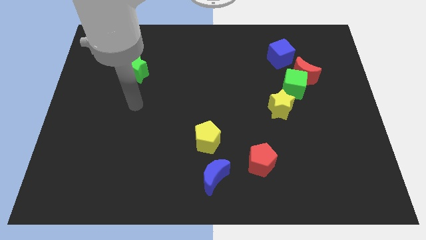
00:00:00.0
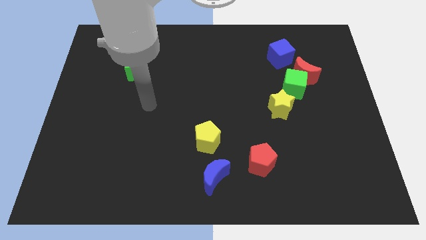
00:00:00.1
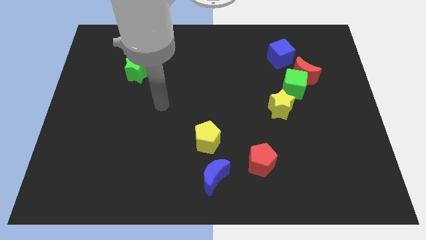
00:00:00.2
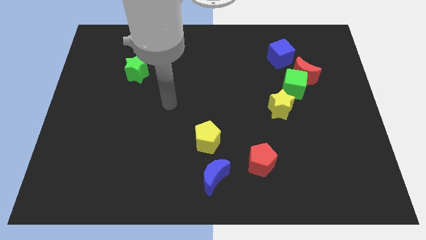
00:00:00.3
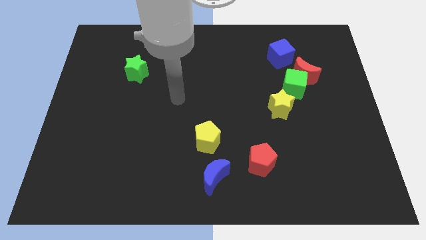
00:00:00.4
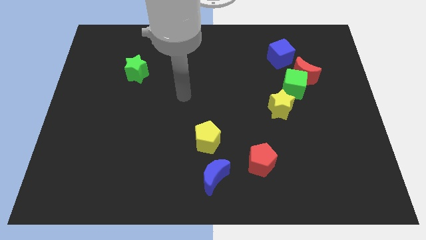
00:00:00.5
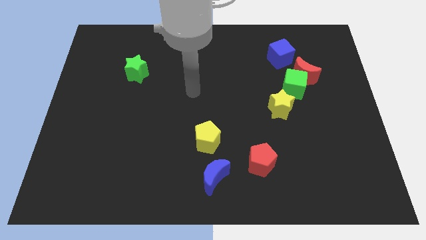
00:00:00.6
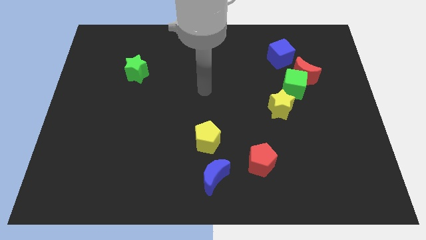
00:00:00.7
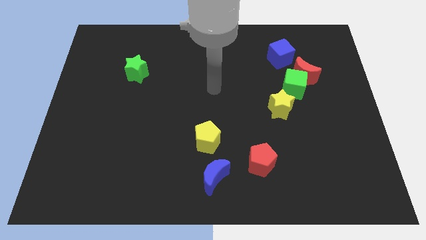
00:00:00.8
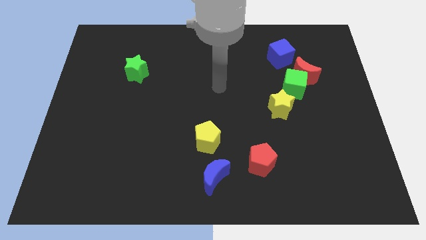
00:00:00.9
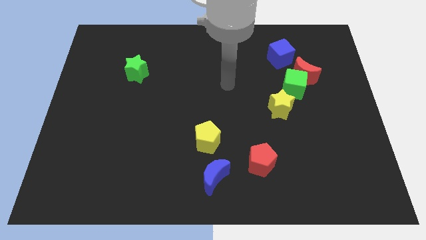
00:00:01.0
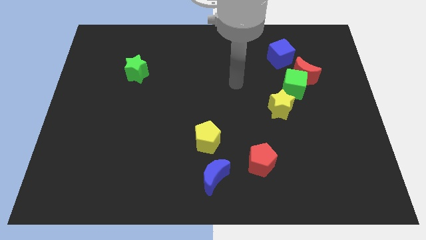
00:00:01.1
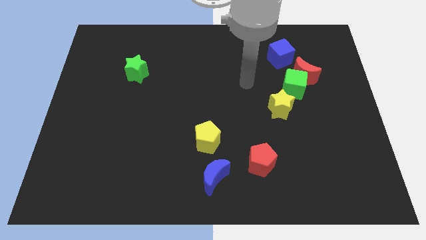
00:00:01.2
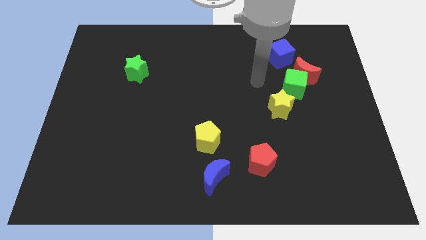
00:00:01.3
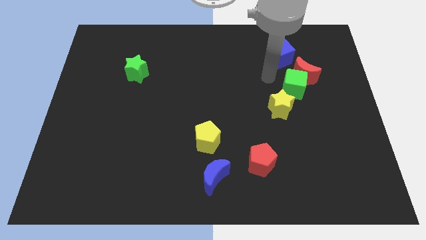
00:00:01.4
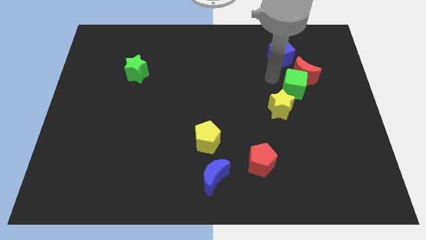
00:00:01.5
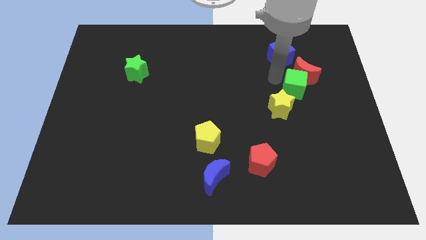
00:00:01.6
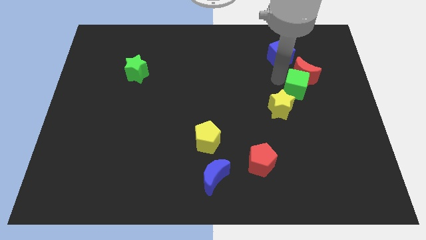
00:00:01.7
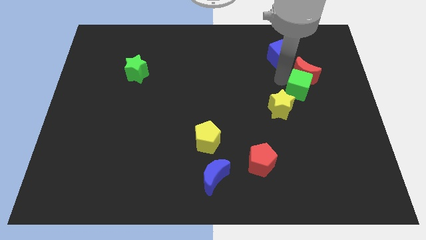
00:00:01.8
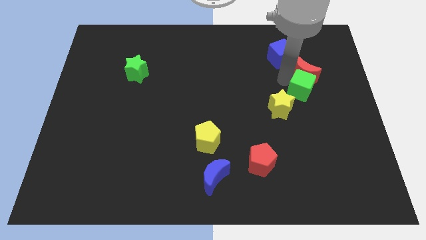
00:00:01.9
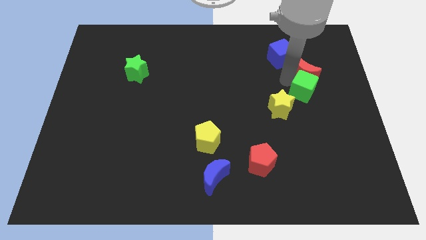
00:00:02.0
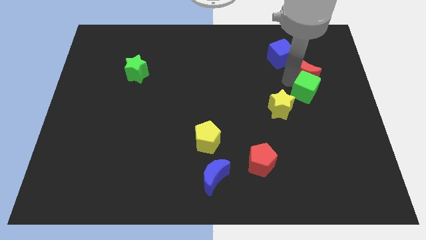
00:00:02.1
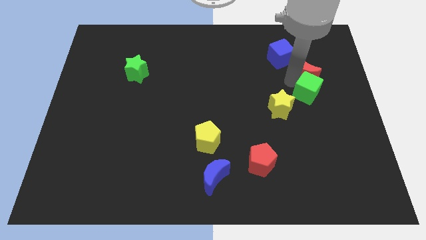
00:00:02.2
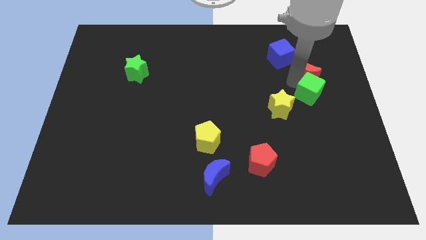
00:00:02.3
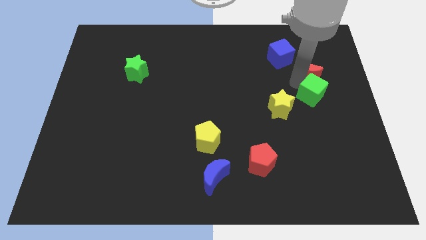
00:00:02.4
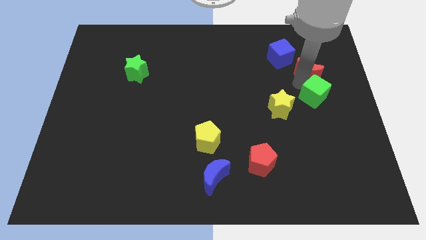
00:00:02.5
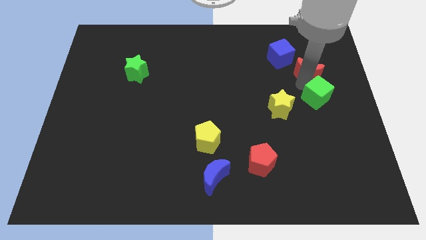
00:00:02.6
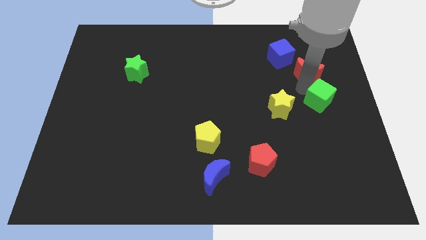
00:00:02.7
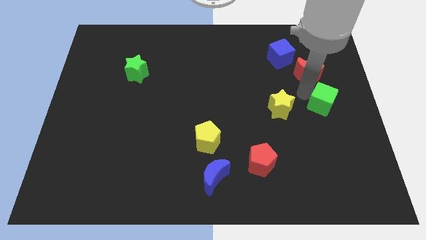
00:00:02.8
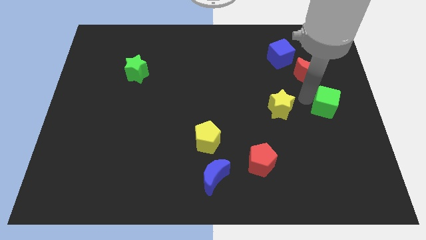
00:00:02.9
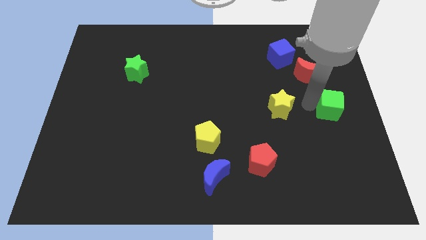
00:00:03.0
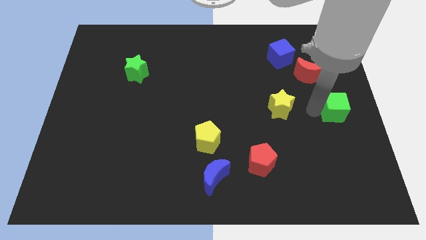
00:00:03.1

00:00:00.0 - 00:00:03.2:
pull the green cube apart from the red moon and yellow star

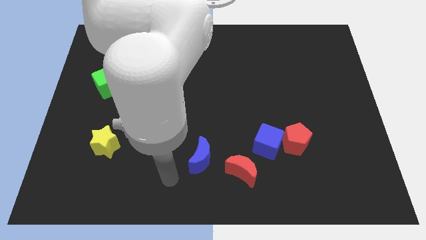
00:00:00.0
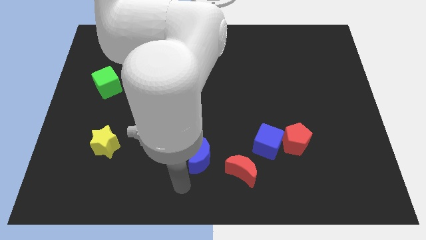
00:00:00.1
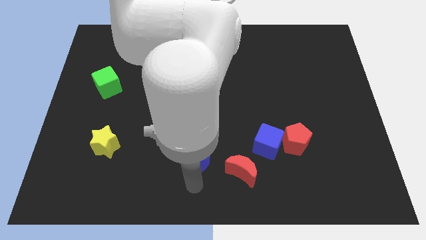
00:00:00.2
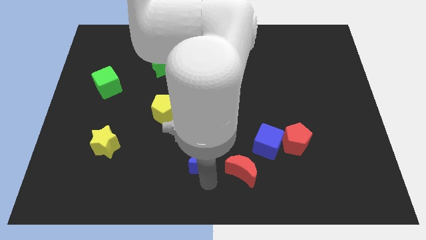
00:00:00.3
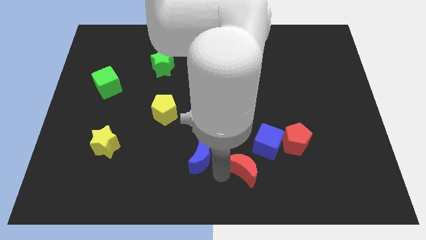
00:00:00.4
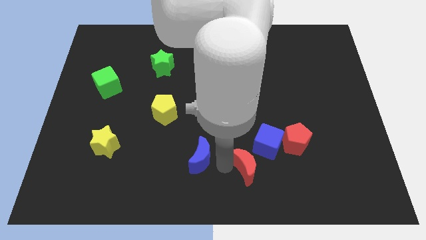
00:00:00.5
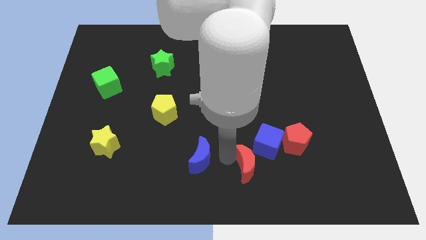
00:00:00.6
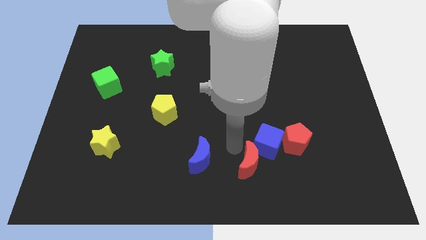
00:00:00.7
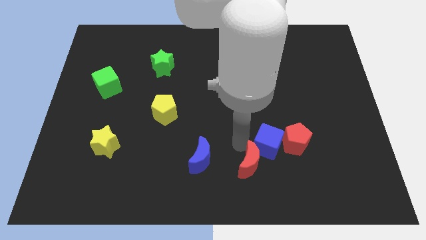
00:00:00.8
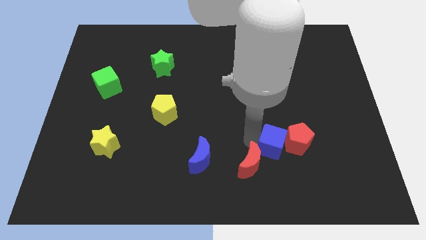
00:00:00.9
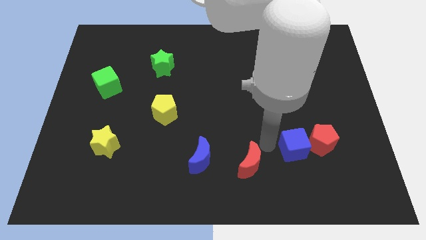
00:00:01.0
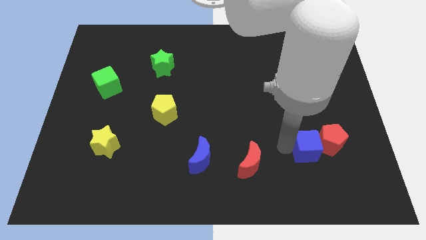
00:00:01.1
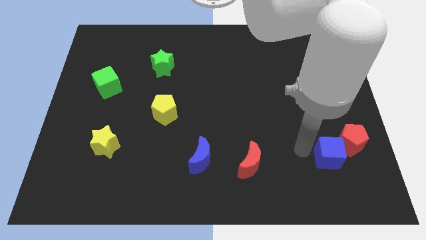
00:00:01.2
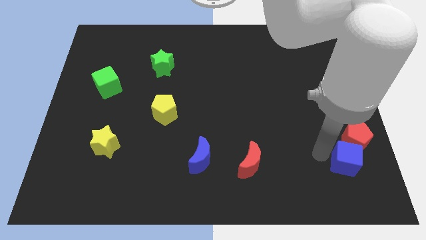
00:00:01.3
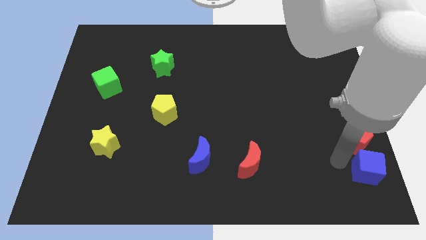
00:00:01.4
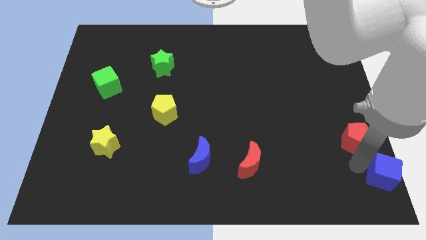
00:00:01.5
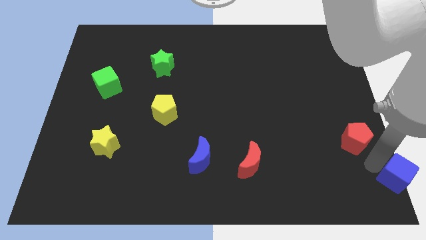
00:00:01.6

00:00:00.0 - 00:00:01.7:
separate the red pentagon from the blue cube

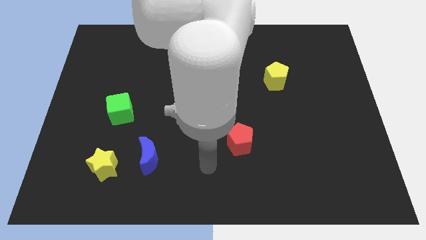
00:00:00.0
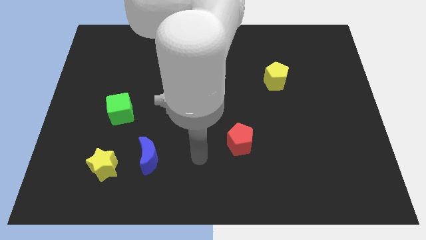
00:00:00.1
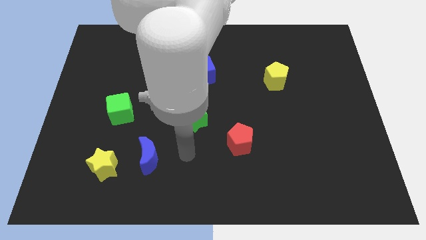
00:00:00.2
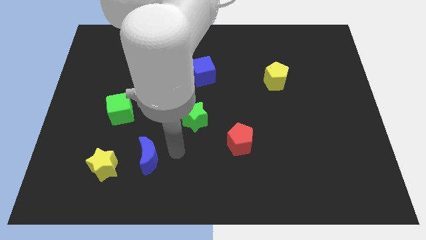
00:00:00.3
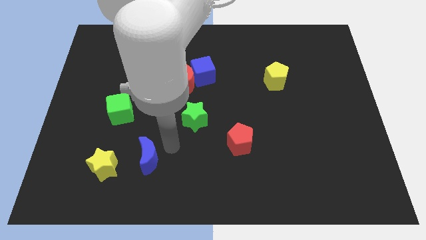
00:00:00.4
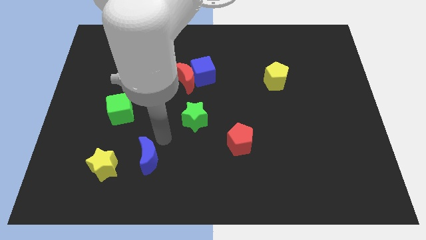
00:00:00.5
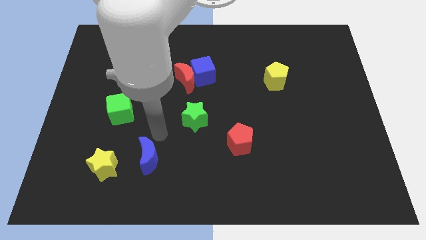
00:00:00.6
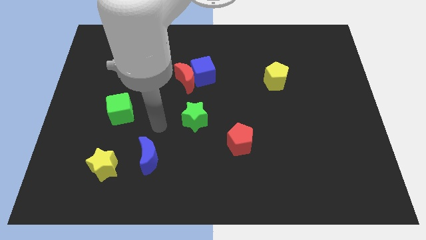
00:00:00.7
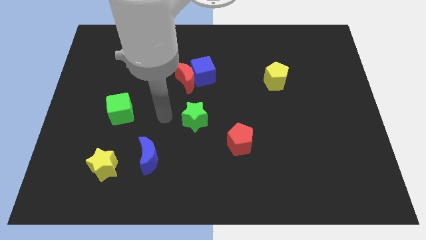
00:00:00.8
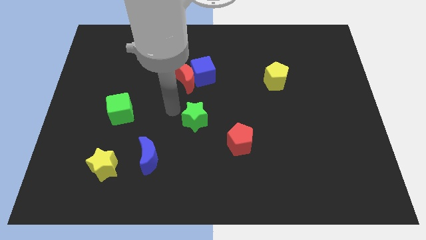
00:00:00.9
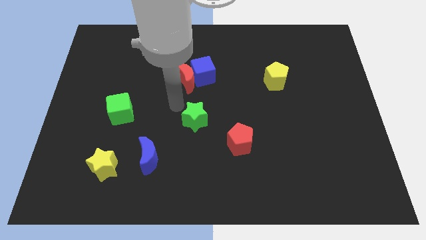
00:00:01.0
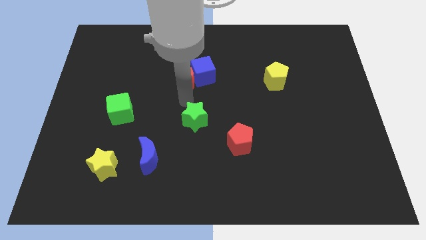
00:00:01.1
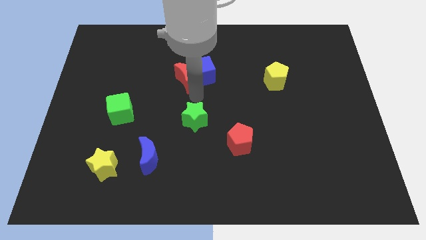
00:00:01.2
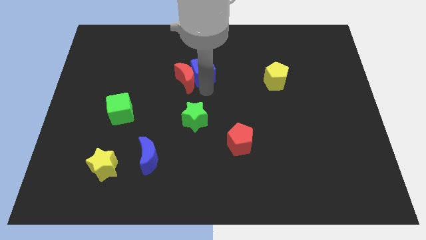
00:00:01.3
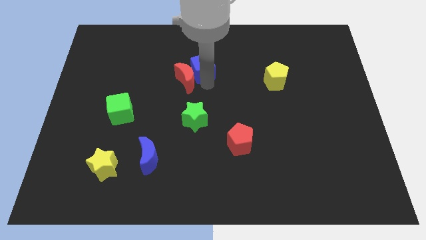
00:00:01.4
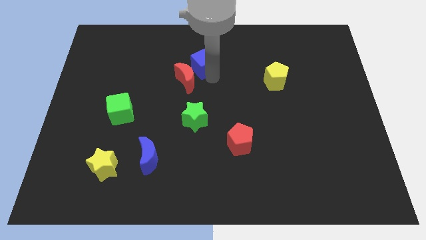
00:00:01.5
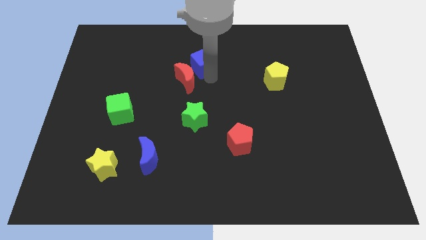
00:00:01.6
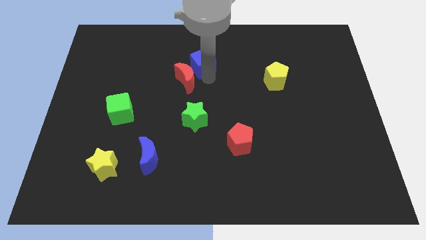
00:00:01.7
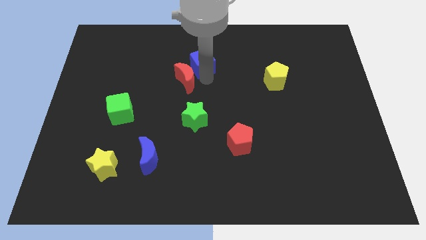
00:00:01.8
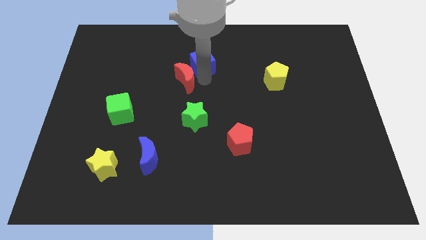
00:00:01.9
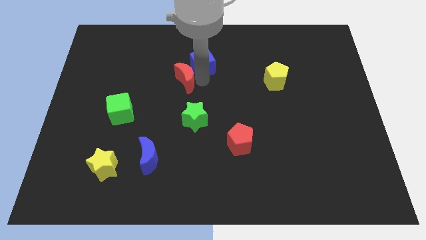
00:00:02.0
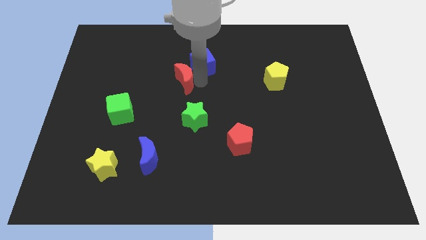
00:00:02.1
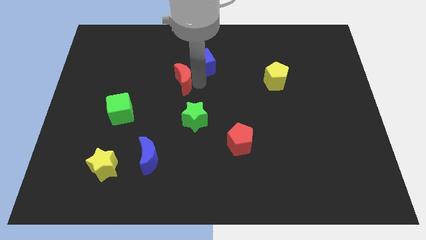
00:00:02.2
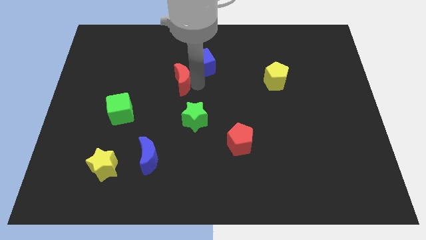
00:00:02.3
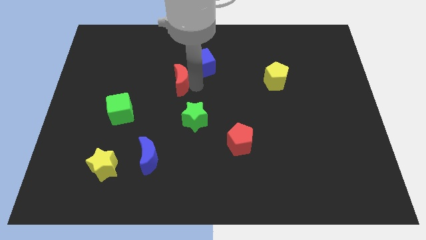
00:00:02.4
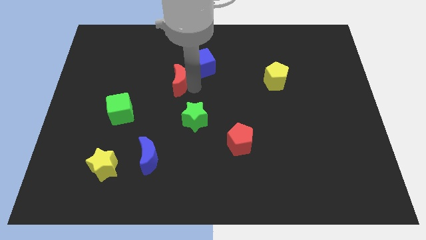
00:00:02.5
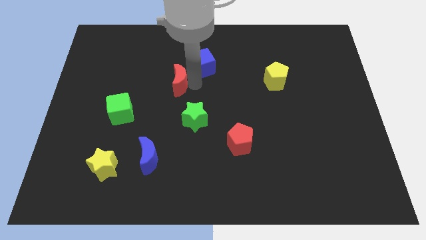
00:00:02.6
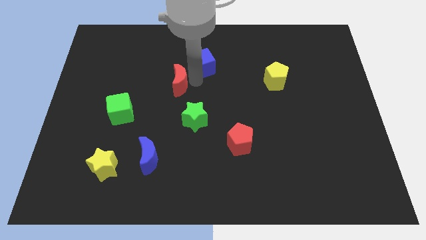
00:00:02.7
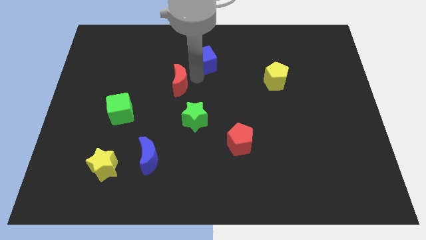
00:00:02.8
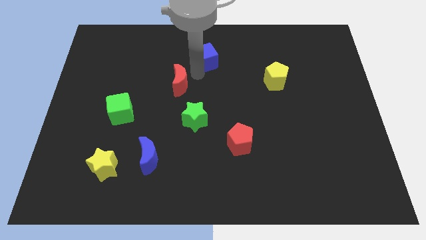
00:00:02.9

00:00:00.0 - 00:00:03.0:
pull the red moon apart from the blue cube

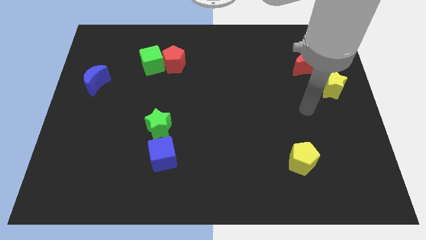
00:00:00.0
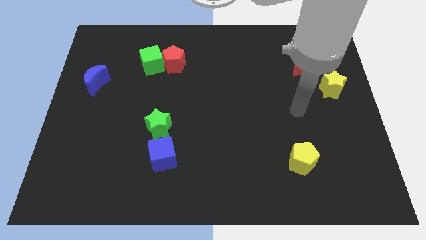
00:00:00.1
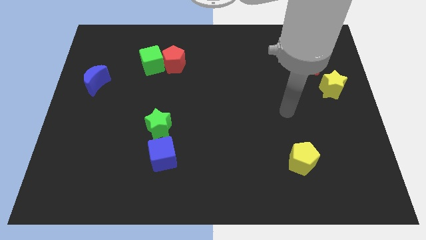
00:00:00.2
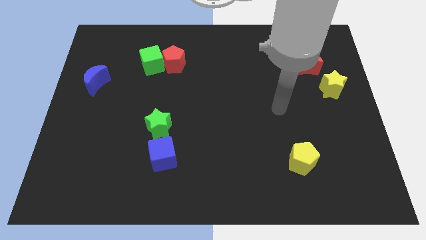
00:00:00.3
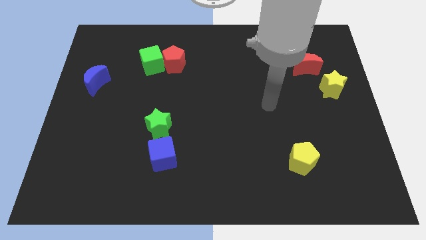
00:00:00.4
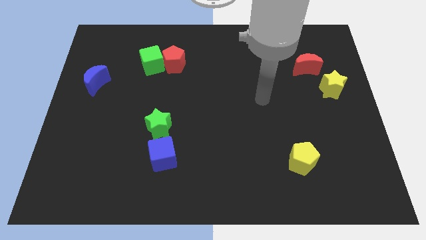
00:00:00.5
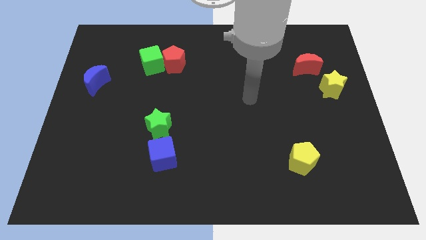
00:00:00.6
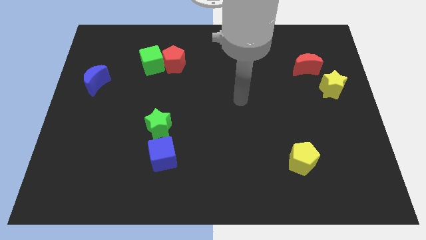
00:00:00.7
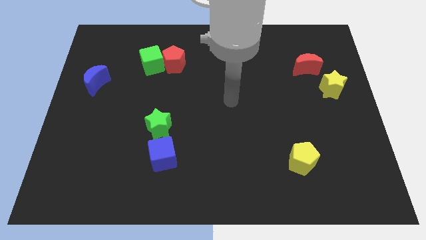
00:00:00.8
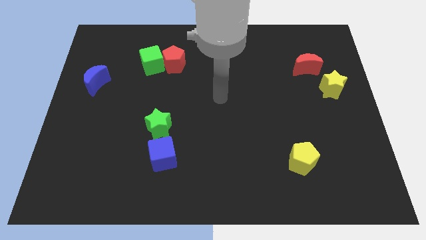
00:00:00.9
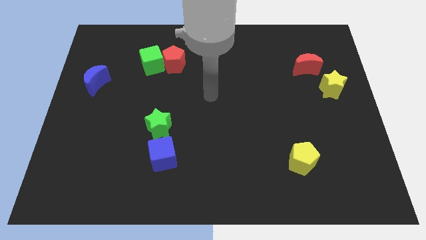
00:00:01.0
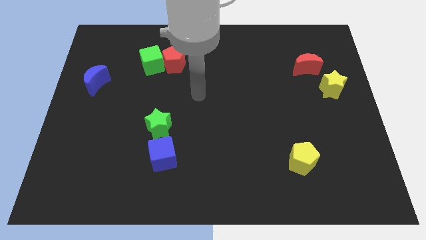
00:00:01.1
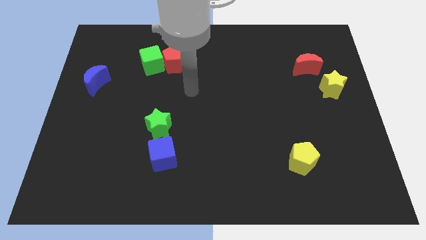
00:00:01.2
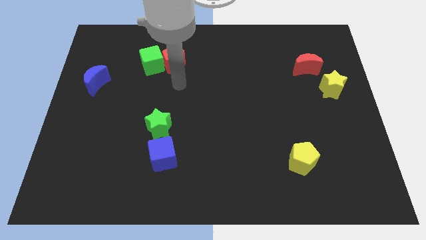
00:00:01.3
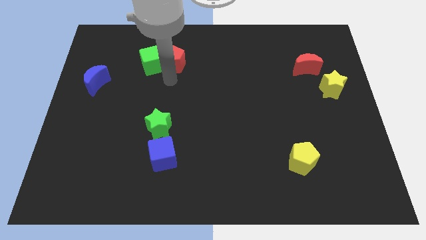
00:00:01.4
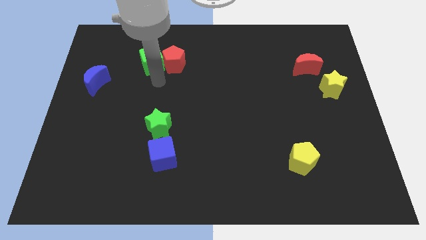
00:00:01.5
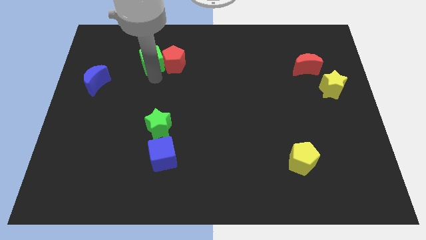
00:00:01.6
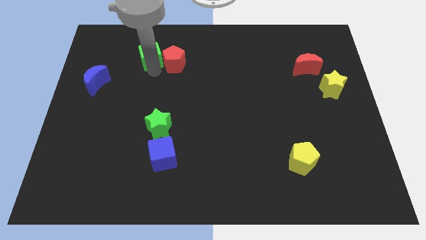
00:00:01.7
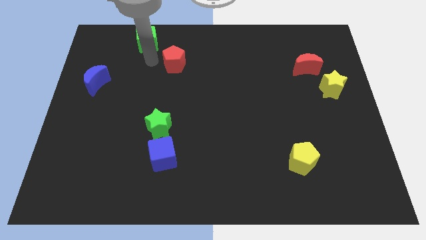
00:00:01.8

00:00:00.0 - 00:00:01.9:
separate the red pentagon from the green cube
